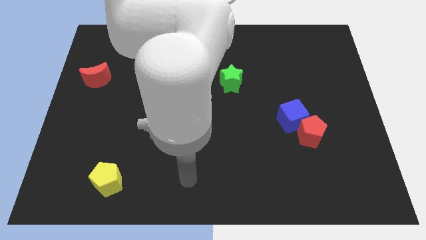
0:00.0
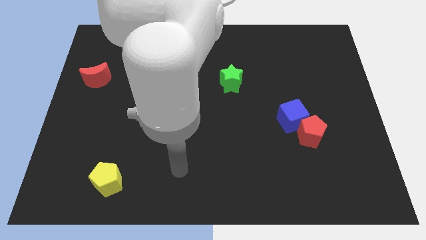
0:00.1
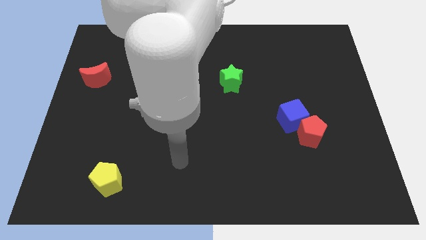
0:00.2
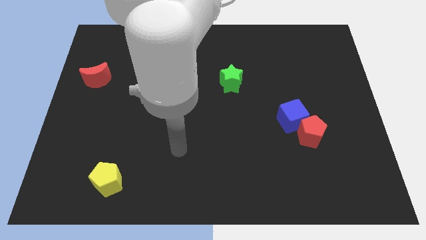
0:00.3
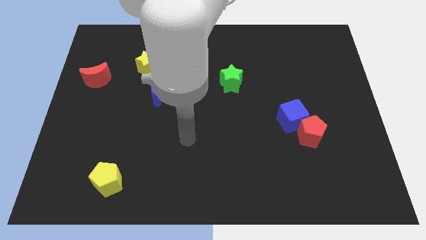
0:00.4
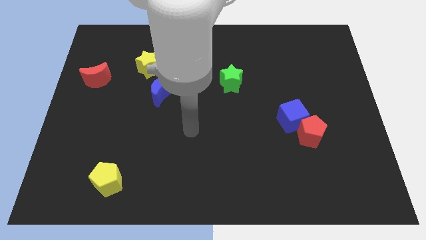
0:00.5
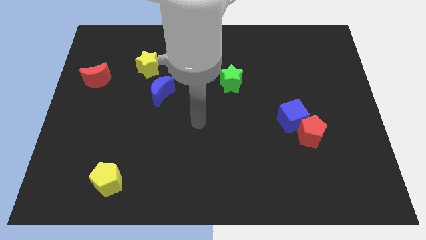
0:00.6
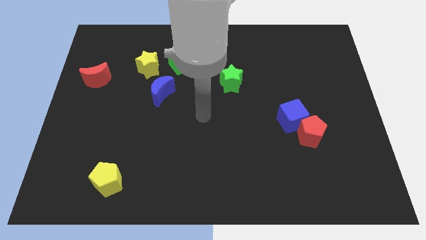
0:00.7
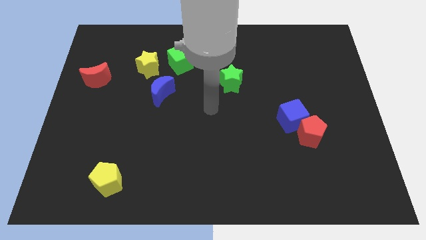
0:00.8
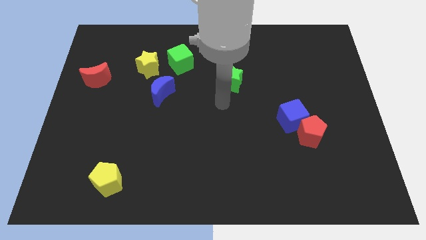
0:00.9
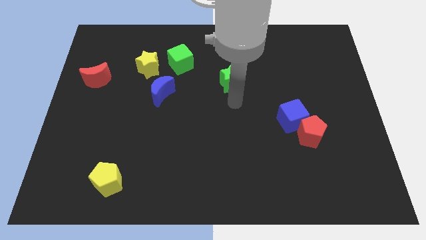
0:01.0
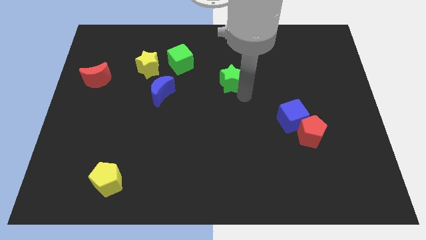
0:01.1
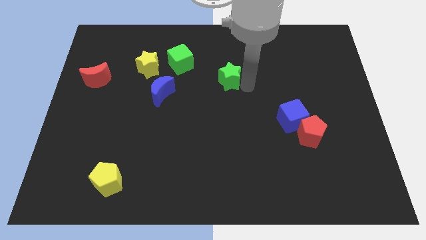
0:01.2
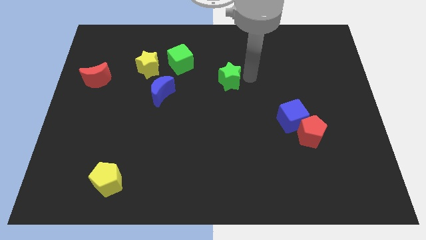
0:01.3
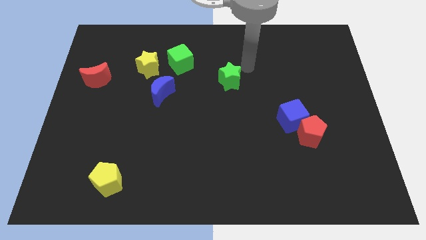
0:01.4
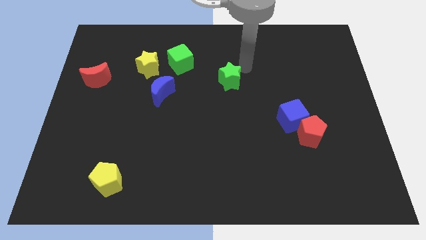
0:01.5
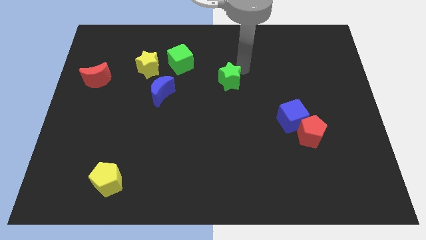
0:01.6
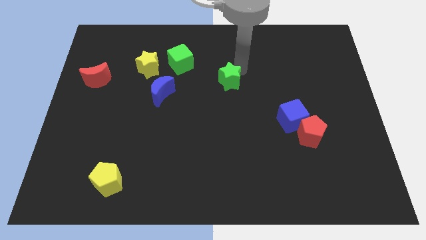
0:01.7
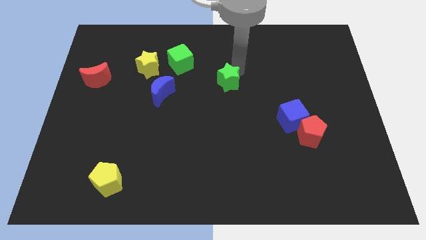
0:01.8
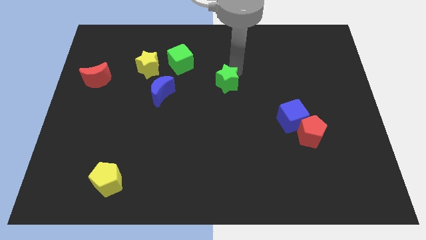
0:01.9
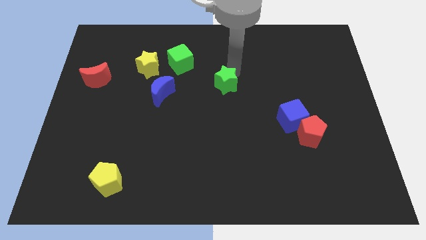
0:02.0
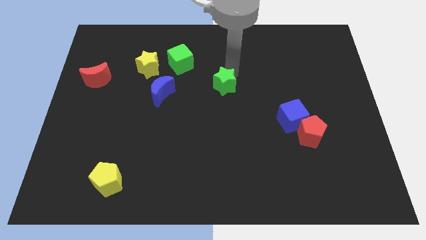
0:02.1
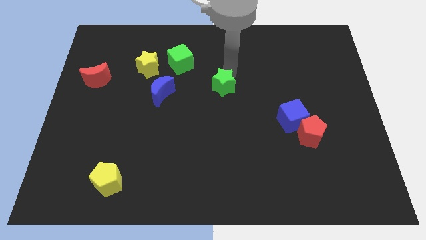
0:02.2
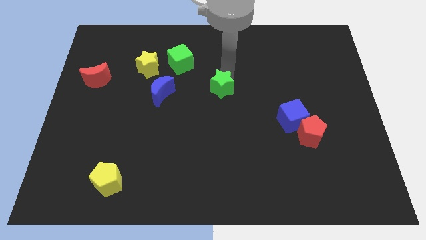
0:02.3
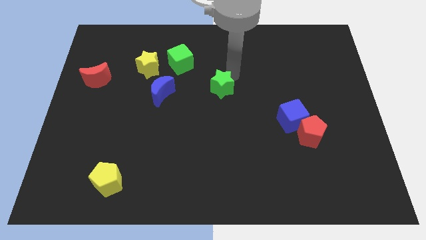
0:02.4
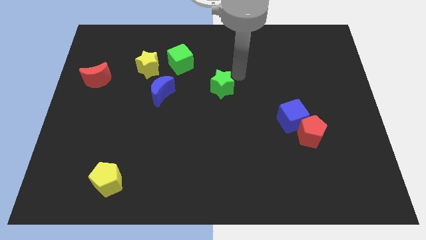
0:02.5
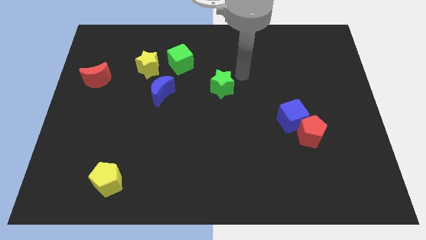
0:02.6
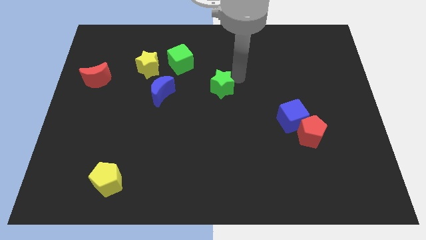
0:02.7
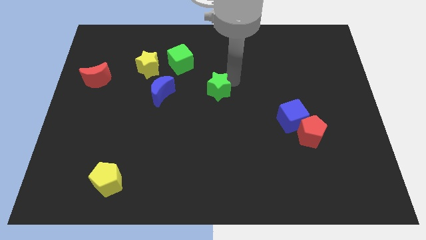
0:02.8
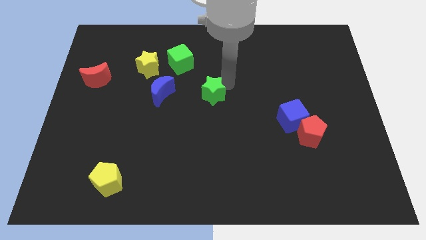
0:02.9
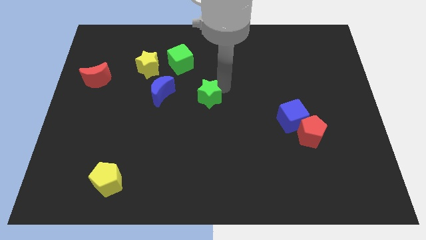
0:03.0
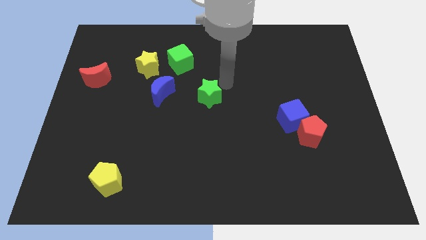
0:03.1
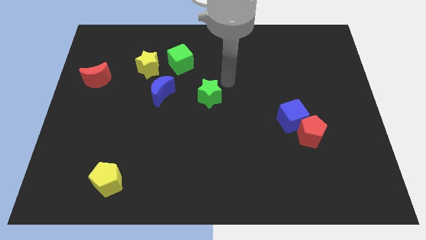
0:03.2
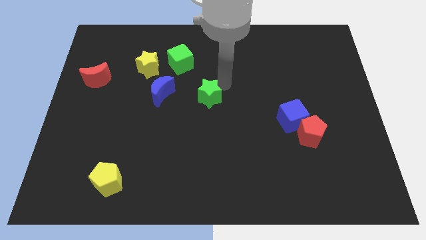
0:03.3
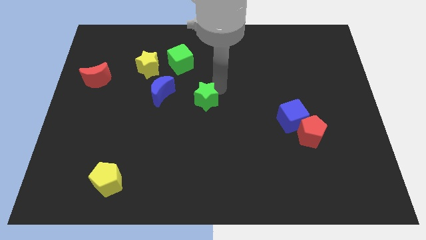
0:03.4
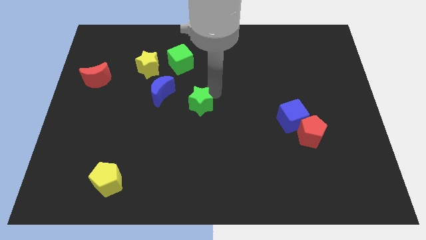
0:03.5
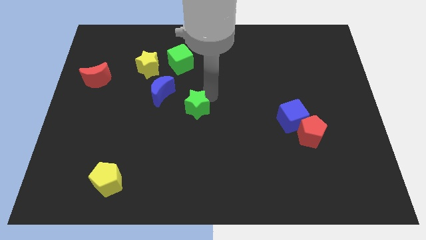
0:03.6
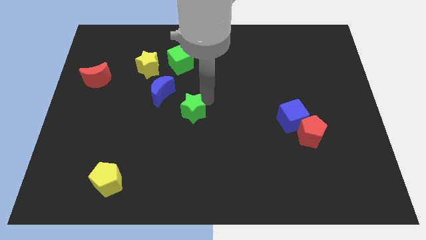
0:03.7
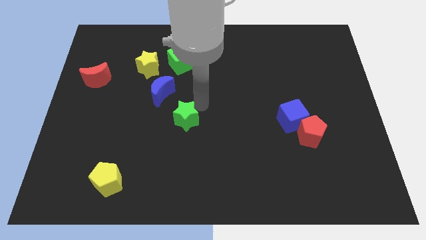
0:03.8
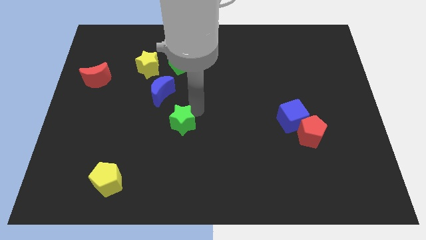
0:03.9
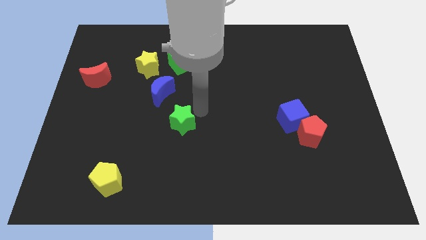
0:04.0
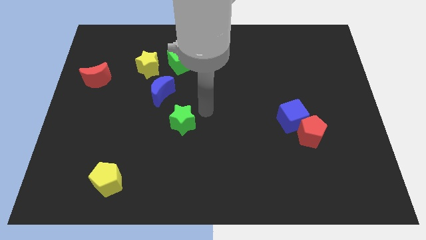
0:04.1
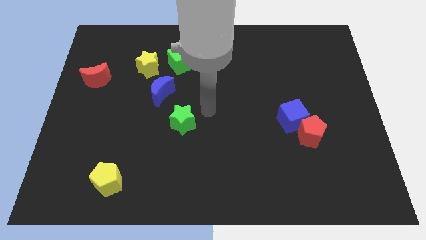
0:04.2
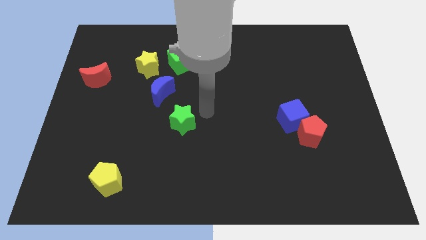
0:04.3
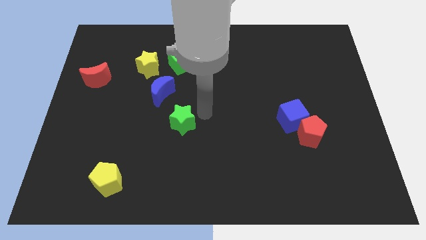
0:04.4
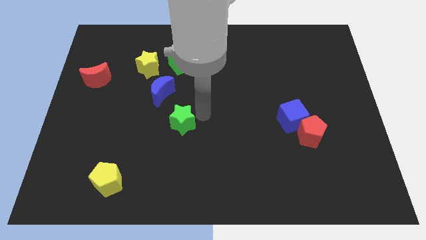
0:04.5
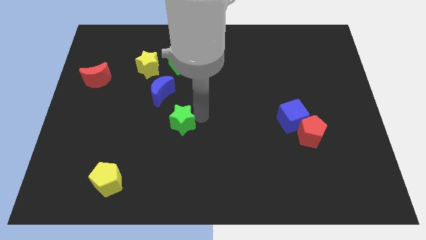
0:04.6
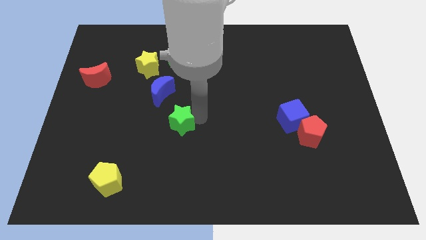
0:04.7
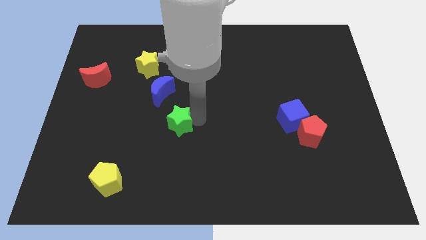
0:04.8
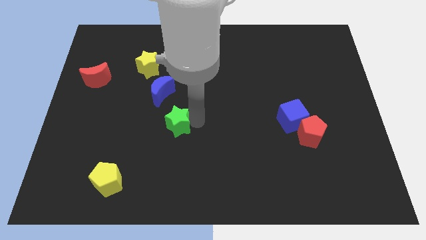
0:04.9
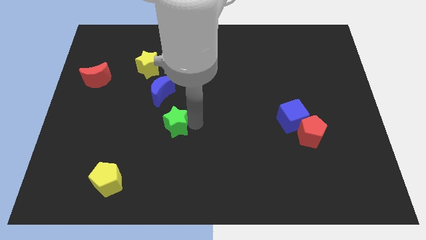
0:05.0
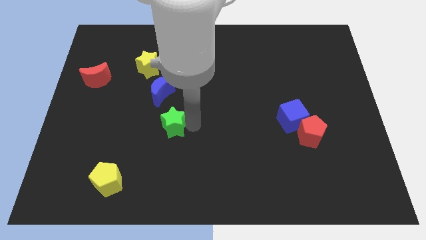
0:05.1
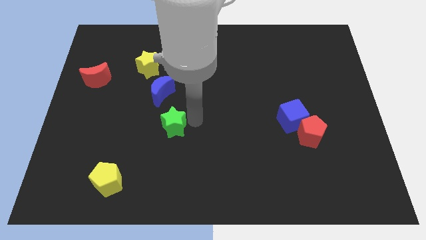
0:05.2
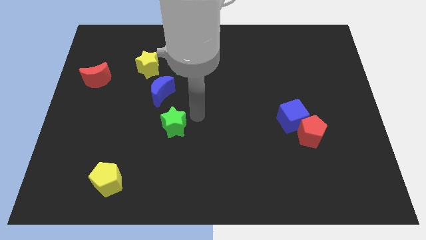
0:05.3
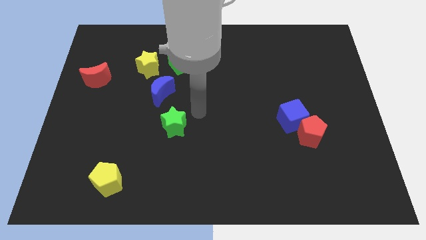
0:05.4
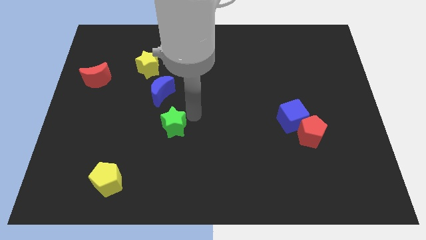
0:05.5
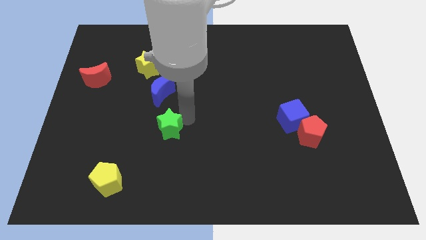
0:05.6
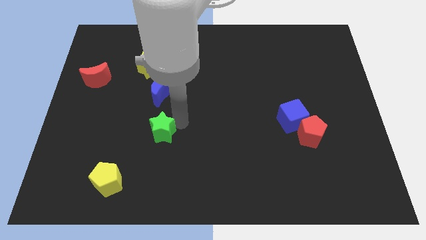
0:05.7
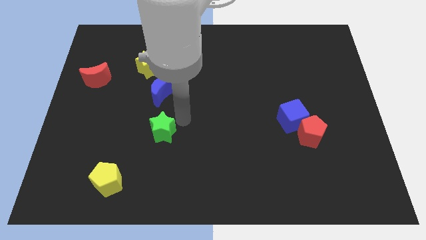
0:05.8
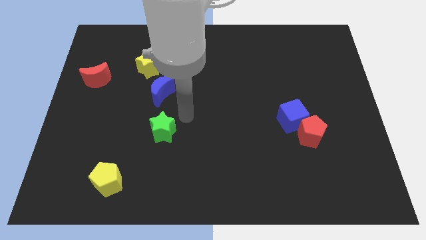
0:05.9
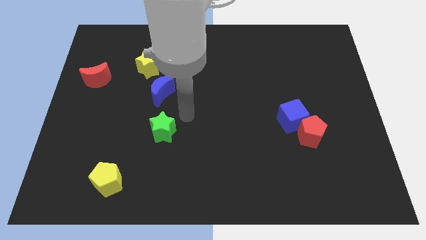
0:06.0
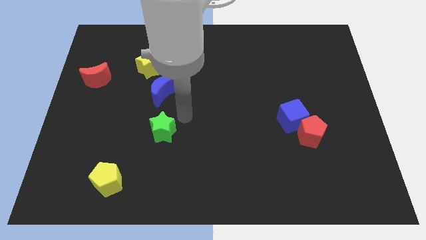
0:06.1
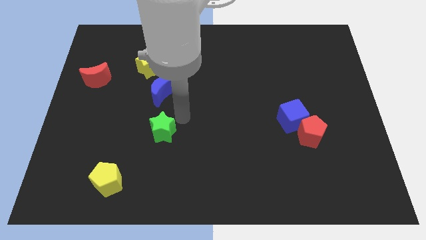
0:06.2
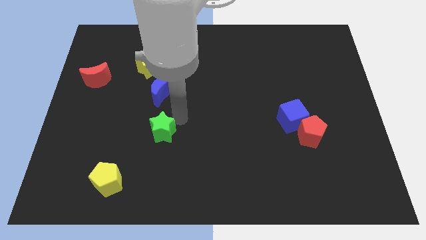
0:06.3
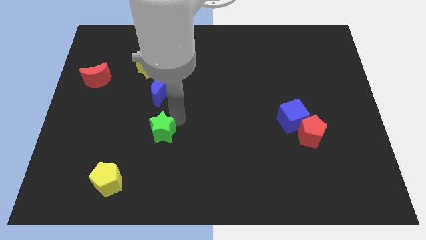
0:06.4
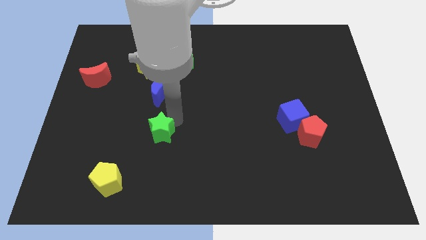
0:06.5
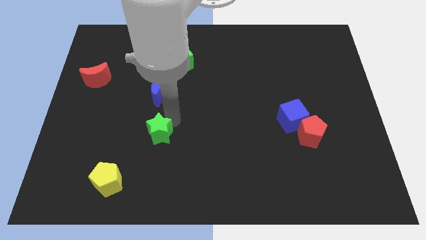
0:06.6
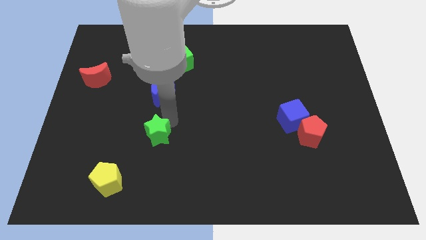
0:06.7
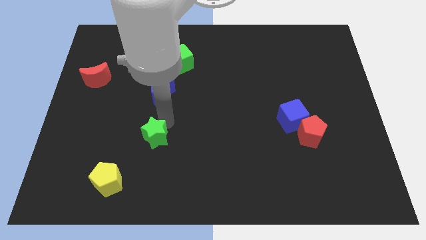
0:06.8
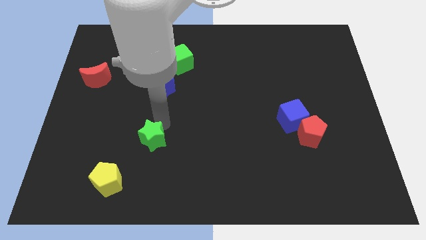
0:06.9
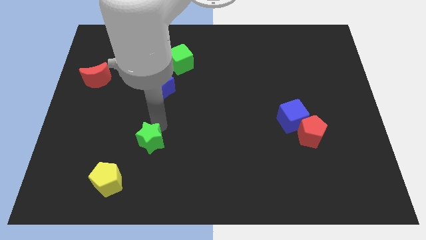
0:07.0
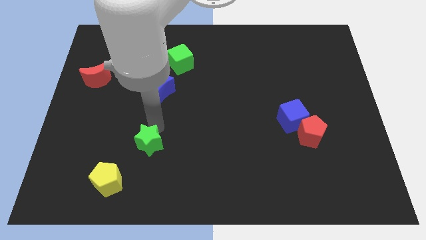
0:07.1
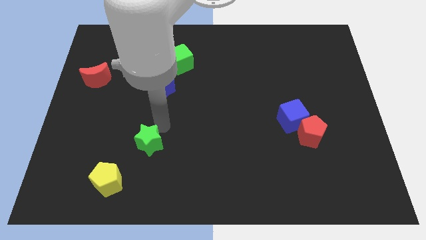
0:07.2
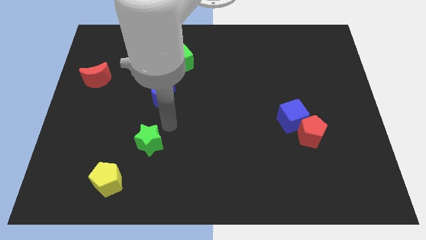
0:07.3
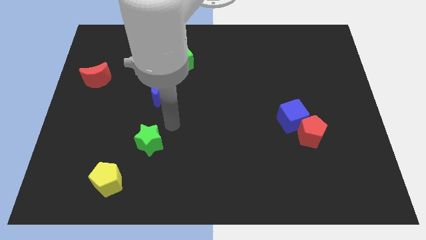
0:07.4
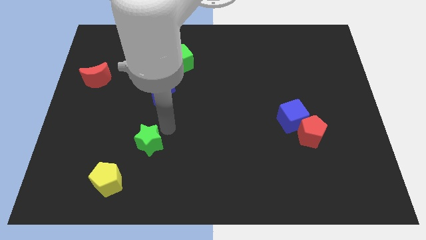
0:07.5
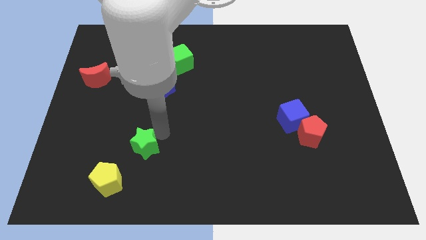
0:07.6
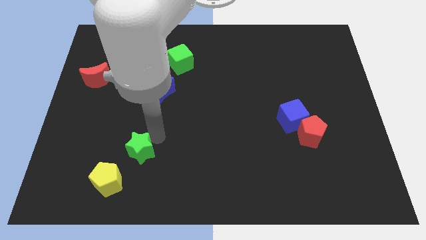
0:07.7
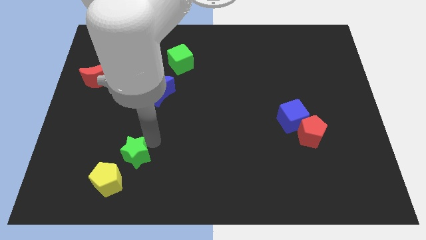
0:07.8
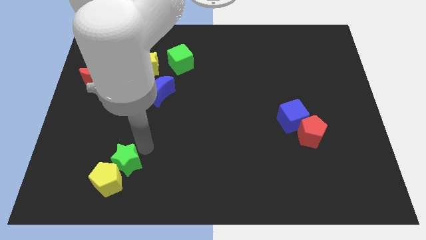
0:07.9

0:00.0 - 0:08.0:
push the green star towards the yellow pentagon
